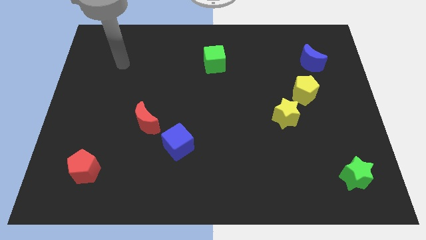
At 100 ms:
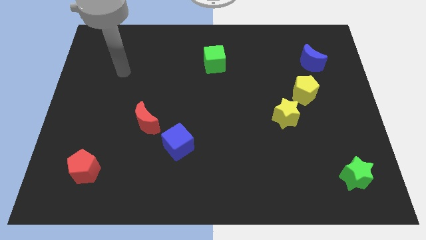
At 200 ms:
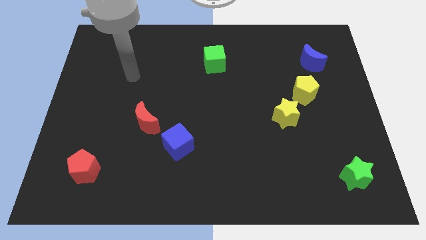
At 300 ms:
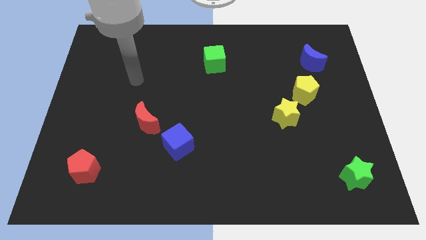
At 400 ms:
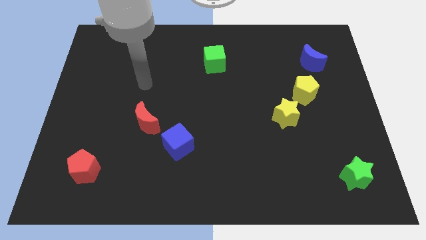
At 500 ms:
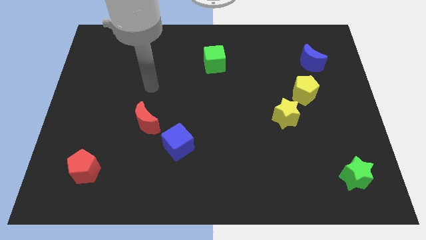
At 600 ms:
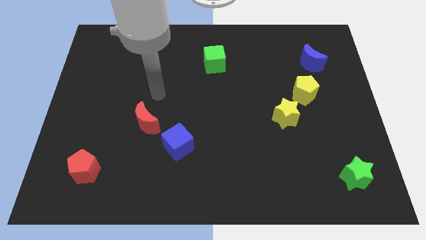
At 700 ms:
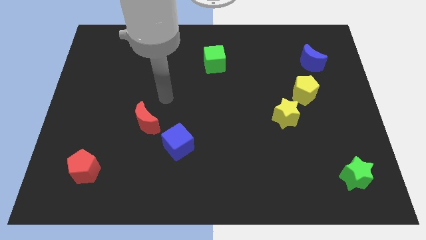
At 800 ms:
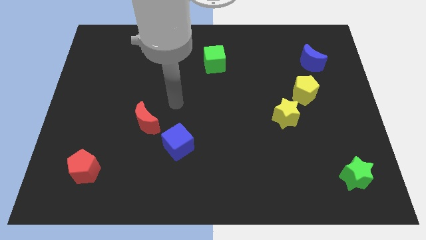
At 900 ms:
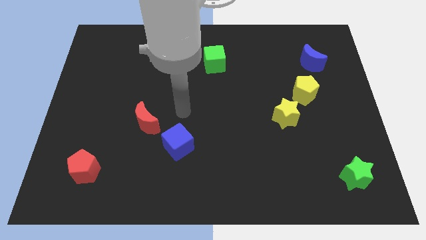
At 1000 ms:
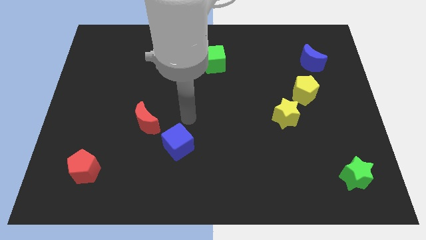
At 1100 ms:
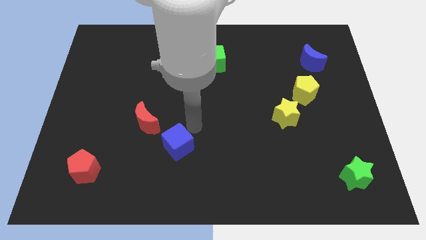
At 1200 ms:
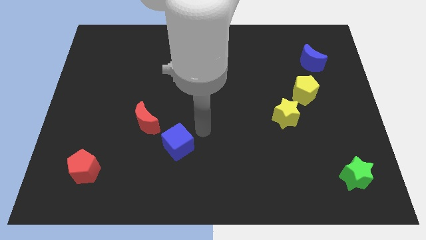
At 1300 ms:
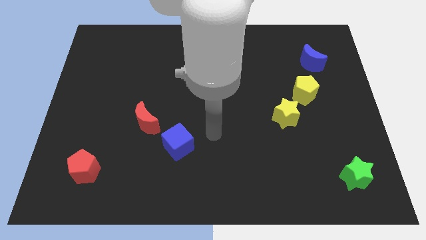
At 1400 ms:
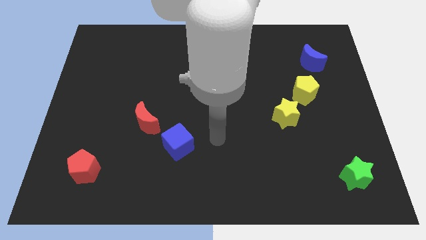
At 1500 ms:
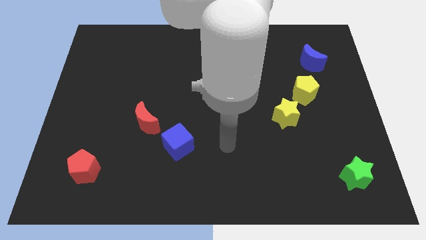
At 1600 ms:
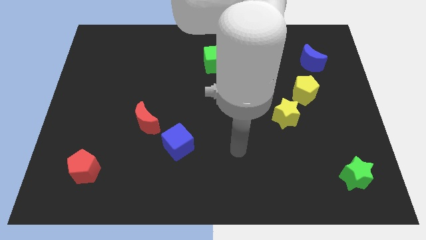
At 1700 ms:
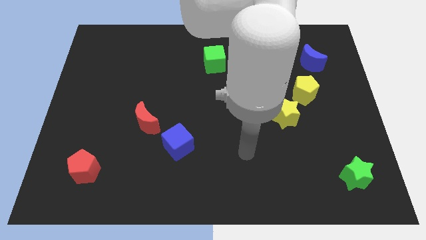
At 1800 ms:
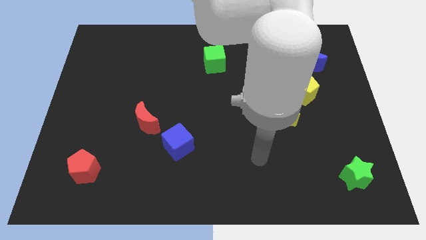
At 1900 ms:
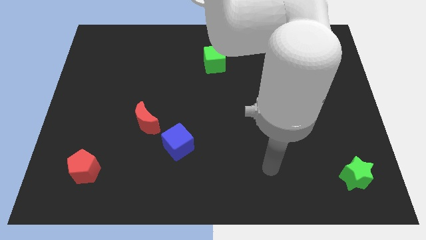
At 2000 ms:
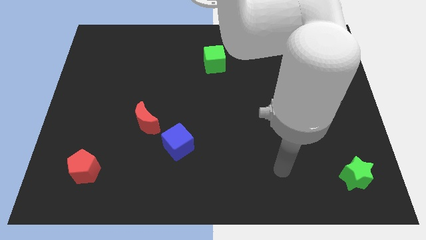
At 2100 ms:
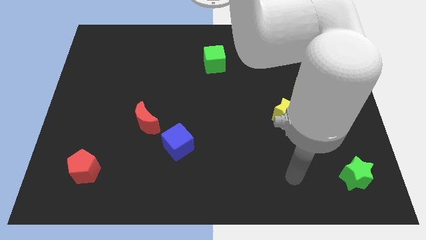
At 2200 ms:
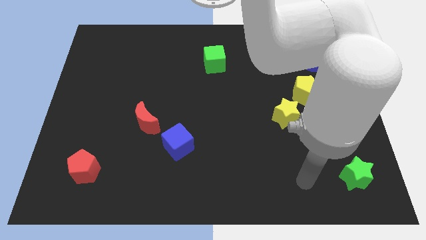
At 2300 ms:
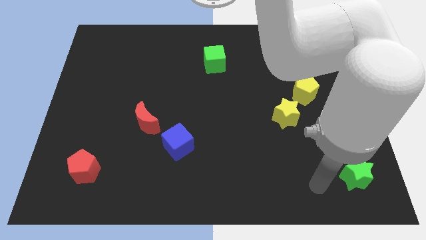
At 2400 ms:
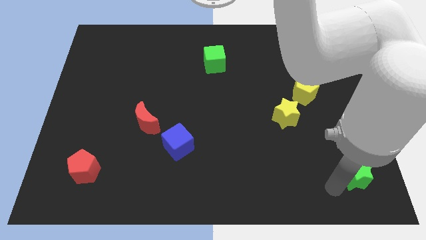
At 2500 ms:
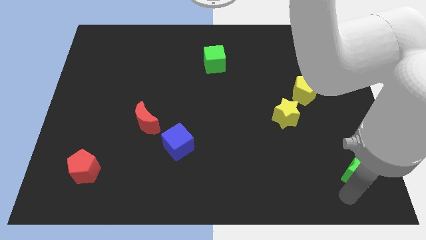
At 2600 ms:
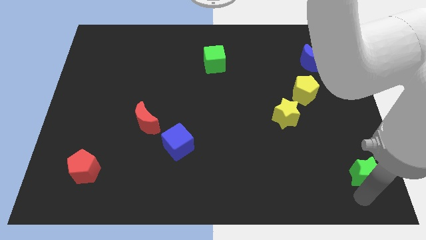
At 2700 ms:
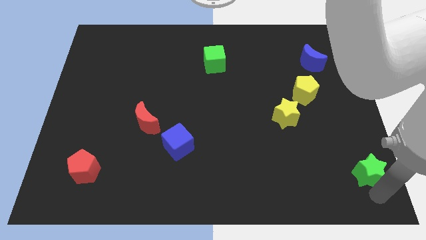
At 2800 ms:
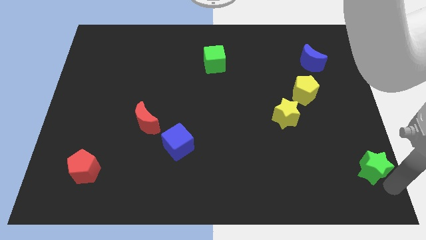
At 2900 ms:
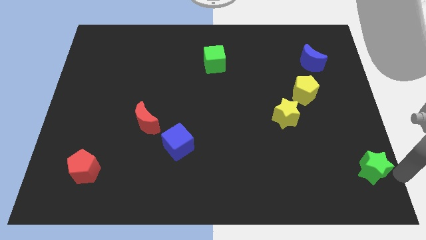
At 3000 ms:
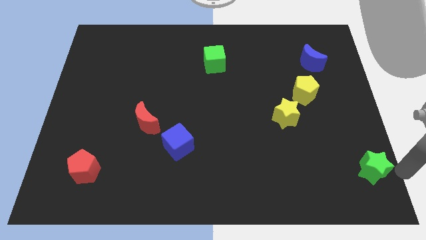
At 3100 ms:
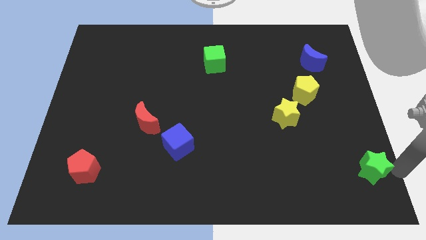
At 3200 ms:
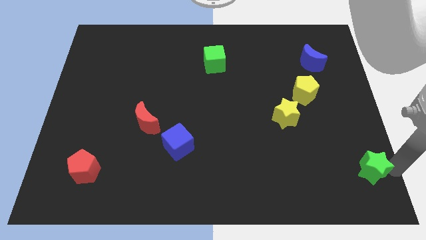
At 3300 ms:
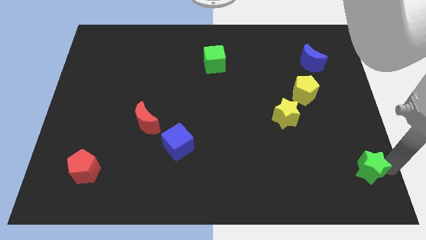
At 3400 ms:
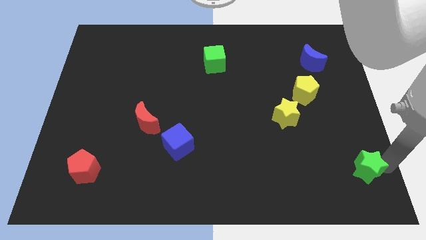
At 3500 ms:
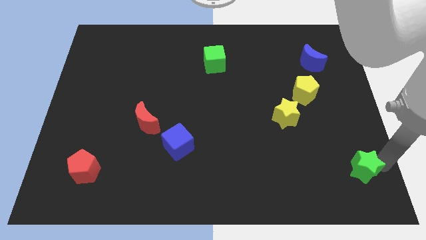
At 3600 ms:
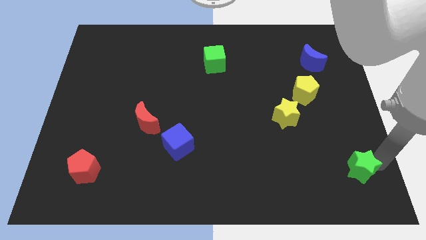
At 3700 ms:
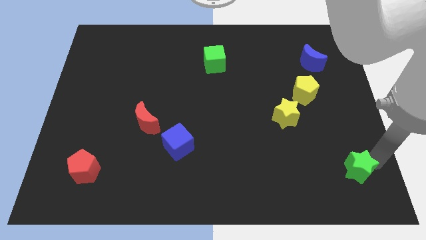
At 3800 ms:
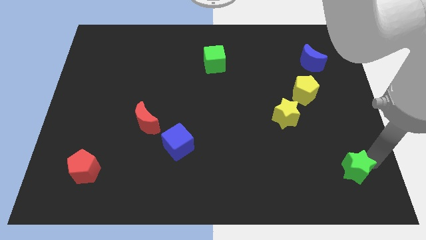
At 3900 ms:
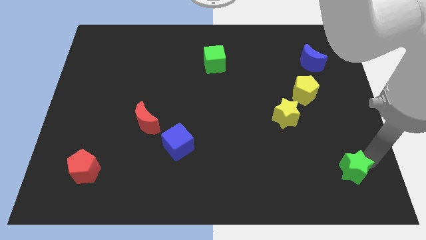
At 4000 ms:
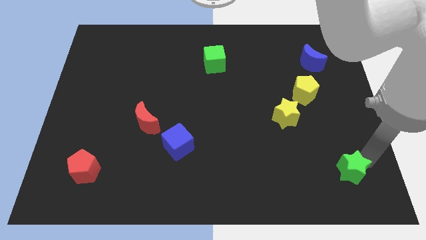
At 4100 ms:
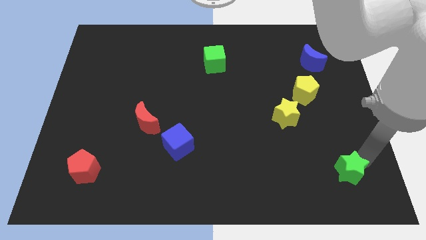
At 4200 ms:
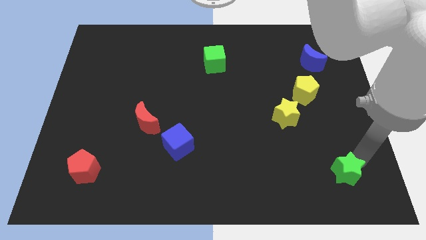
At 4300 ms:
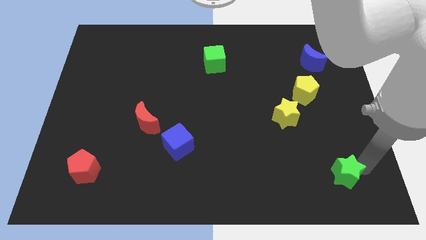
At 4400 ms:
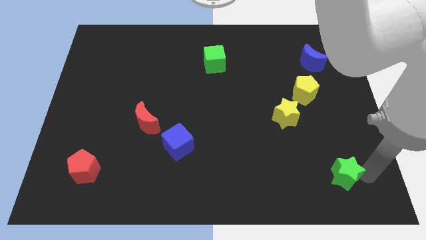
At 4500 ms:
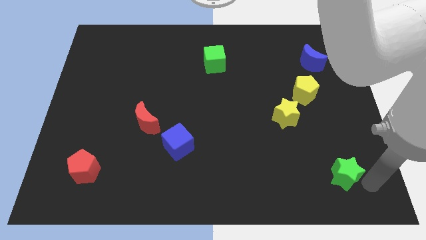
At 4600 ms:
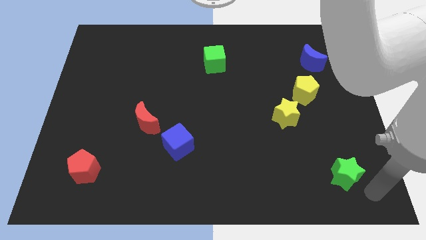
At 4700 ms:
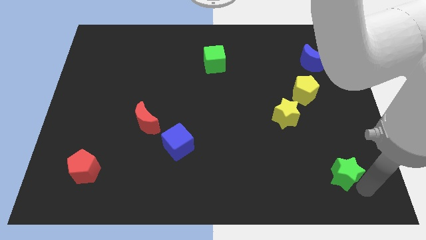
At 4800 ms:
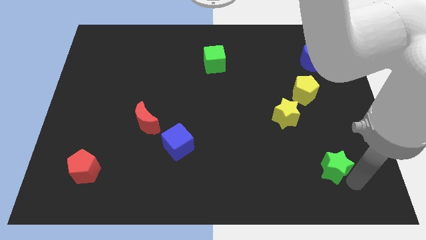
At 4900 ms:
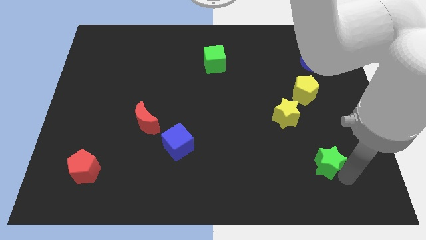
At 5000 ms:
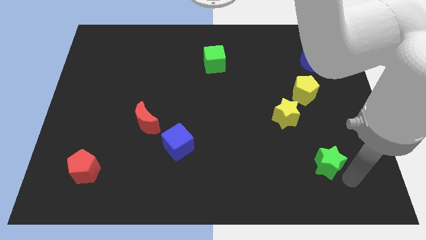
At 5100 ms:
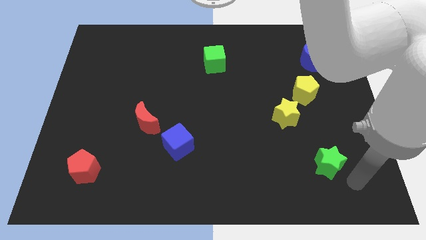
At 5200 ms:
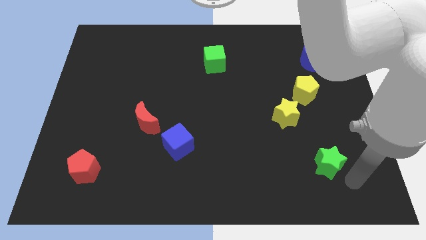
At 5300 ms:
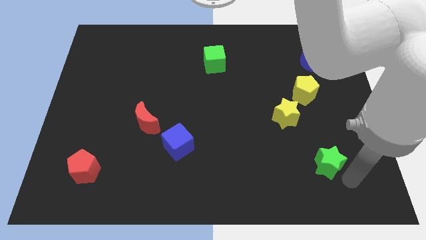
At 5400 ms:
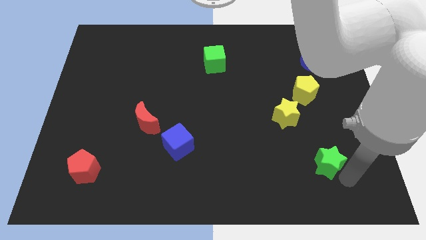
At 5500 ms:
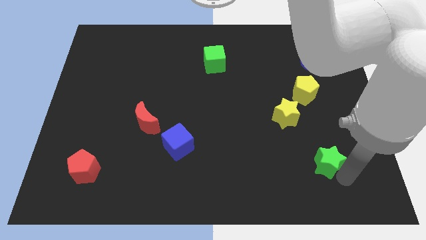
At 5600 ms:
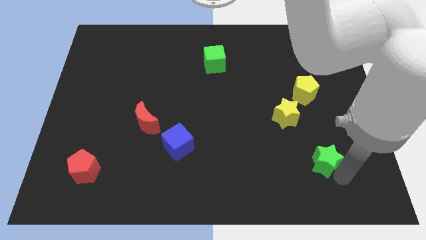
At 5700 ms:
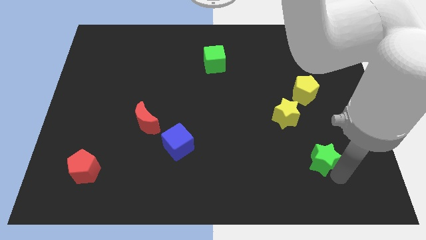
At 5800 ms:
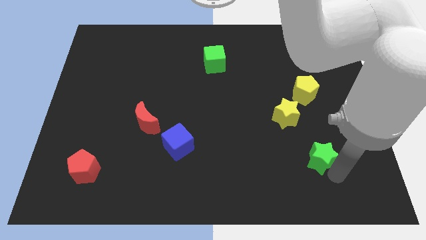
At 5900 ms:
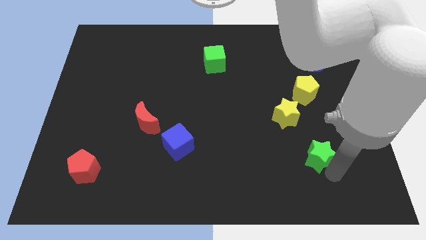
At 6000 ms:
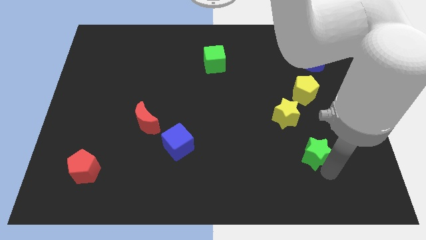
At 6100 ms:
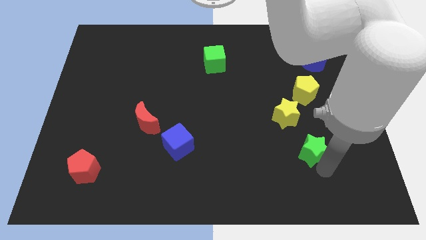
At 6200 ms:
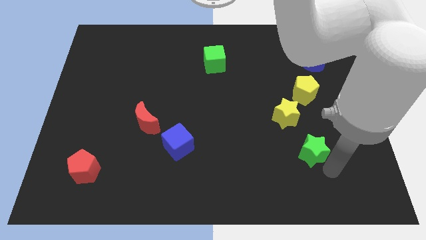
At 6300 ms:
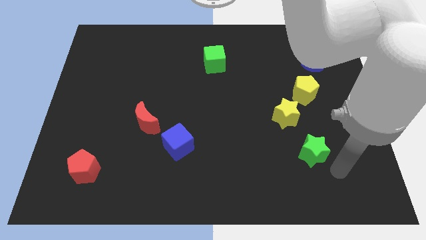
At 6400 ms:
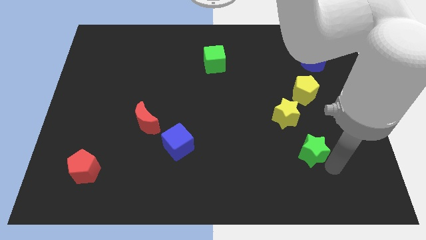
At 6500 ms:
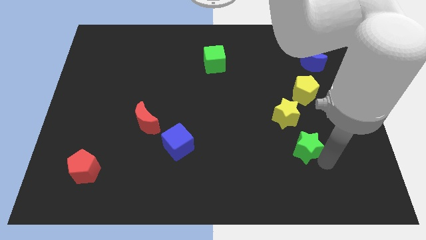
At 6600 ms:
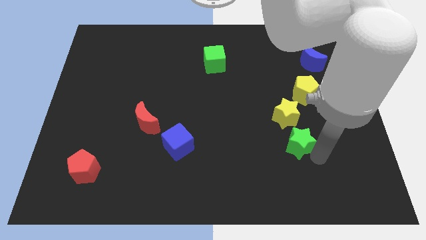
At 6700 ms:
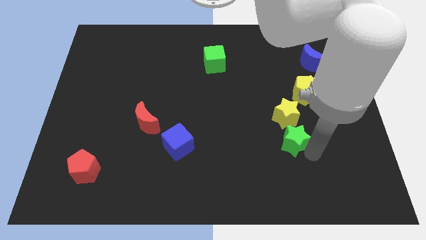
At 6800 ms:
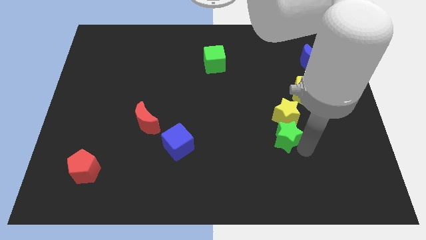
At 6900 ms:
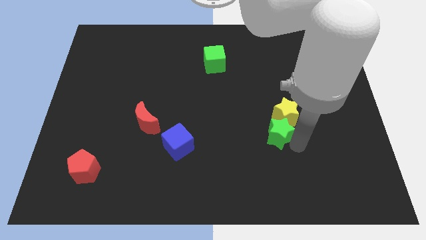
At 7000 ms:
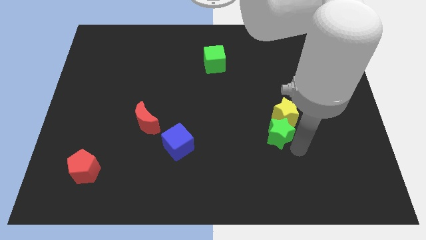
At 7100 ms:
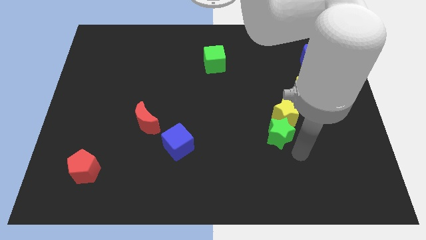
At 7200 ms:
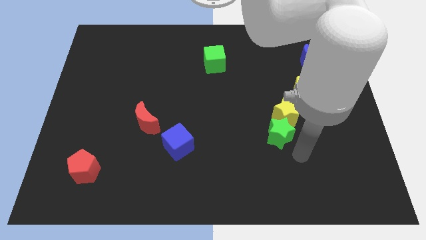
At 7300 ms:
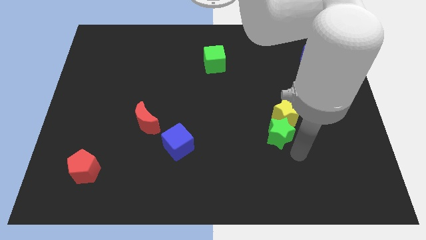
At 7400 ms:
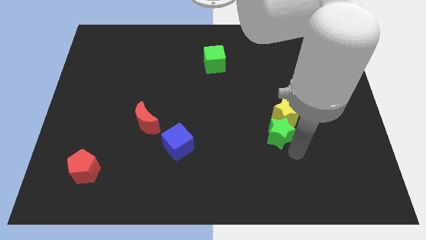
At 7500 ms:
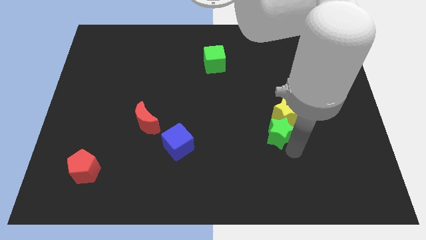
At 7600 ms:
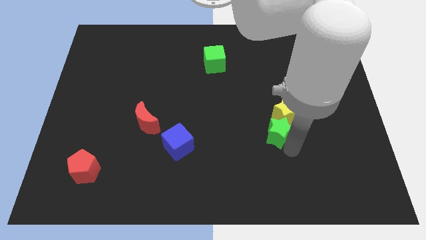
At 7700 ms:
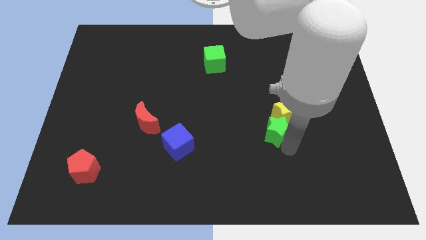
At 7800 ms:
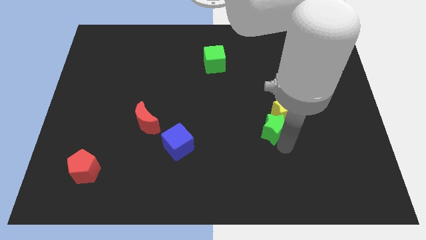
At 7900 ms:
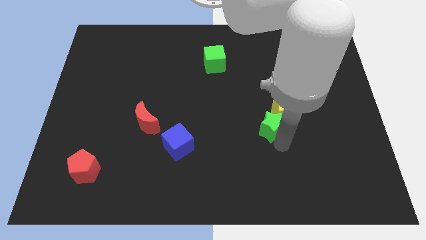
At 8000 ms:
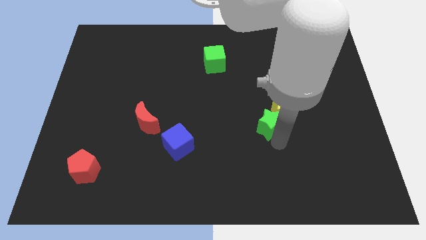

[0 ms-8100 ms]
push the green star up and left
